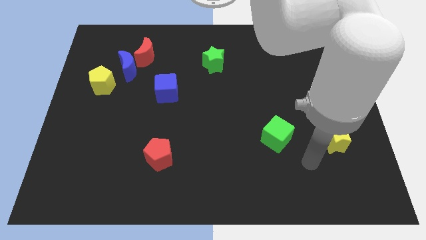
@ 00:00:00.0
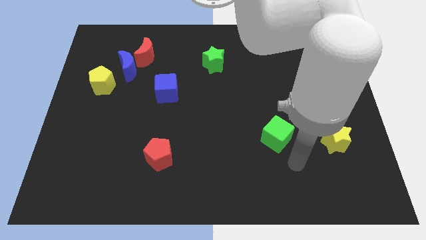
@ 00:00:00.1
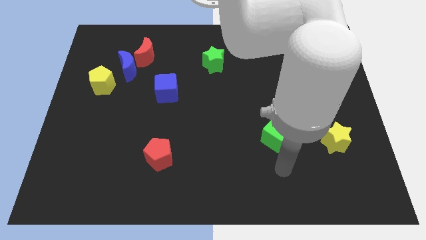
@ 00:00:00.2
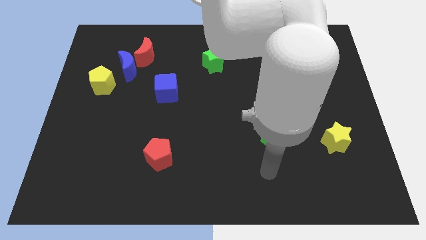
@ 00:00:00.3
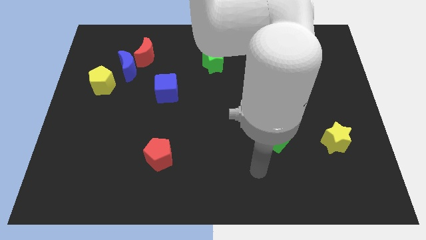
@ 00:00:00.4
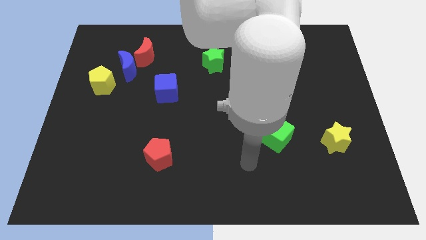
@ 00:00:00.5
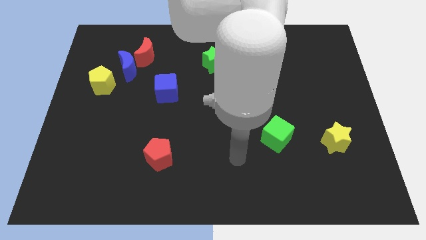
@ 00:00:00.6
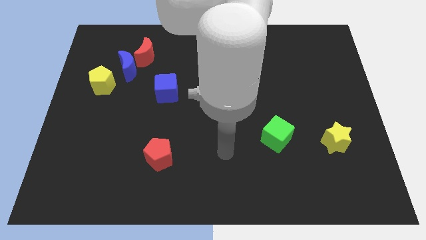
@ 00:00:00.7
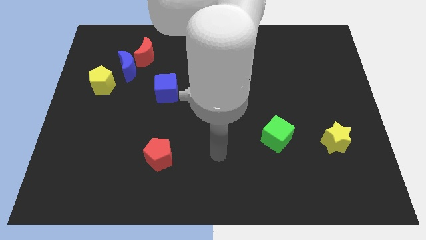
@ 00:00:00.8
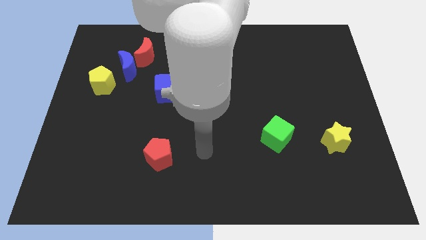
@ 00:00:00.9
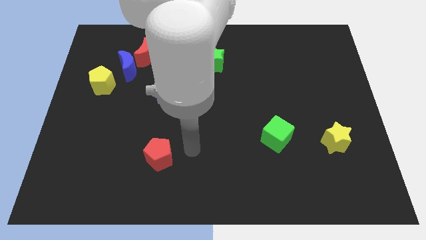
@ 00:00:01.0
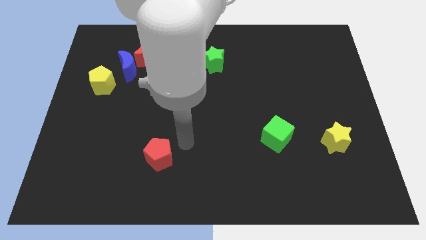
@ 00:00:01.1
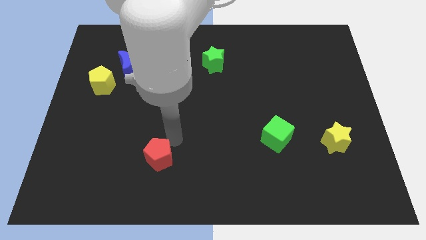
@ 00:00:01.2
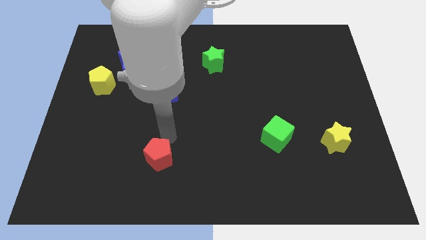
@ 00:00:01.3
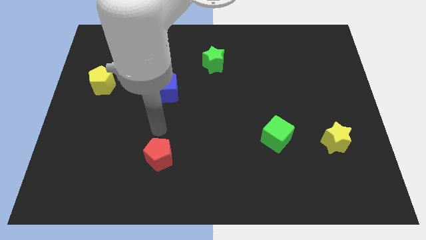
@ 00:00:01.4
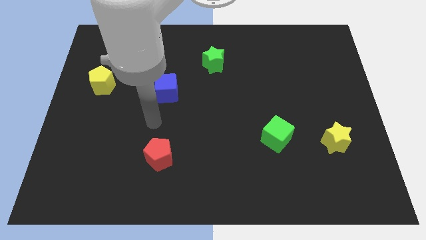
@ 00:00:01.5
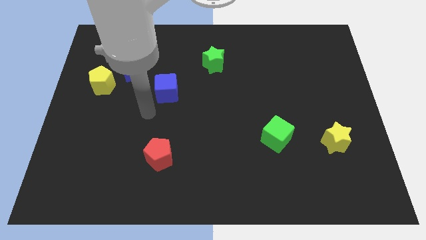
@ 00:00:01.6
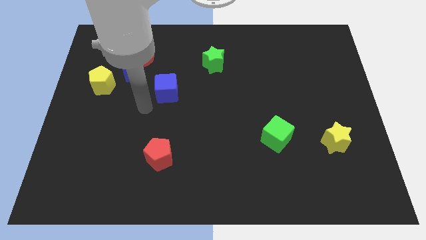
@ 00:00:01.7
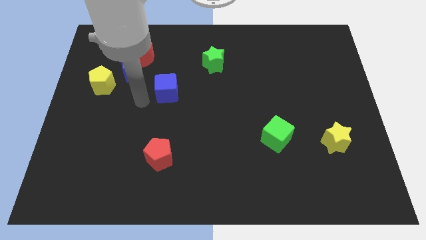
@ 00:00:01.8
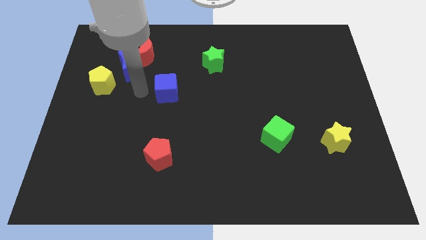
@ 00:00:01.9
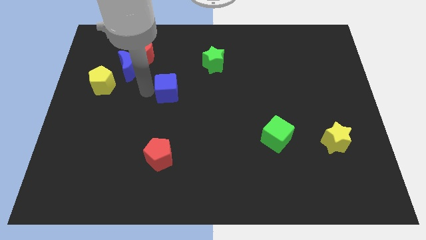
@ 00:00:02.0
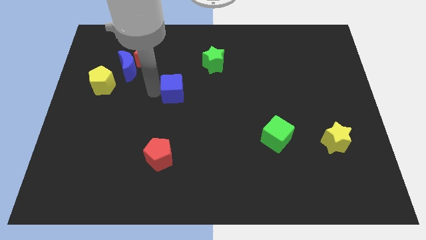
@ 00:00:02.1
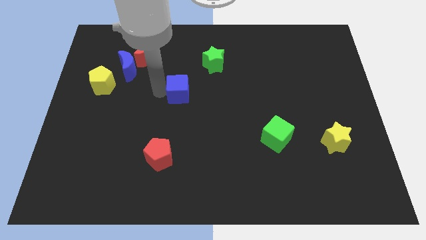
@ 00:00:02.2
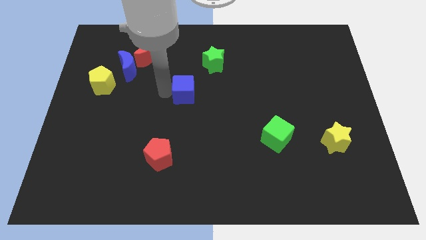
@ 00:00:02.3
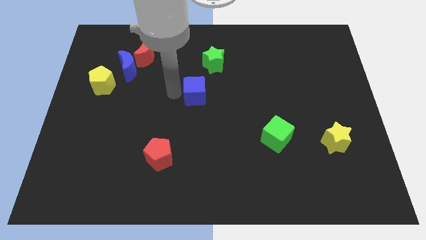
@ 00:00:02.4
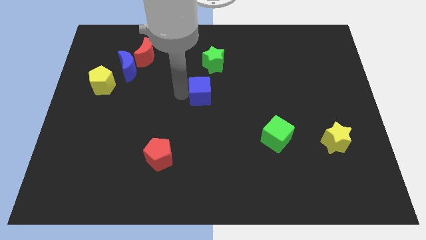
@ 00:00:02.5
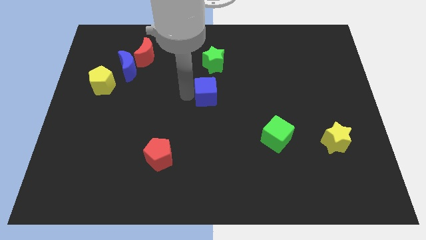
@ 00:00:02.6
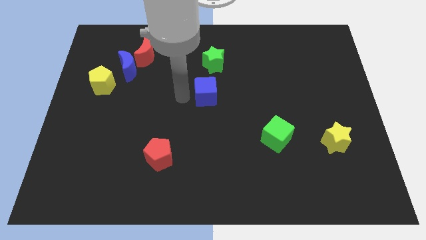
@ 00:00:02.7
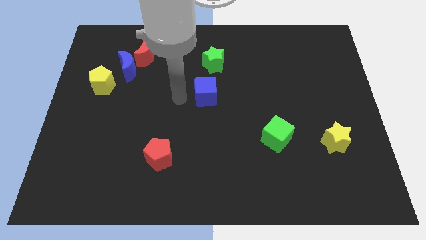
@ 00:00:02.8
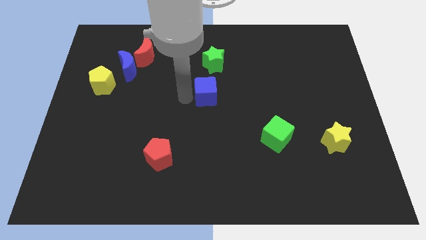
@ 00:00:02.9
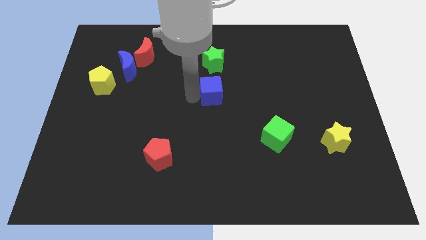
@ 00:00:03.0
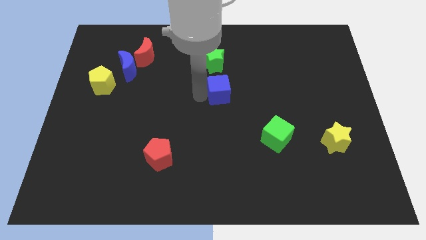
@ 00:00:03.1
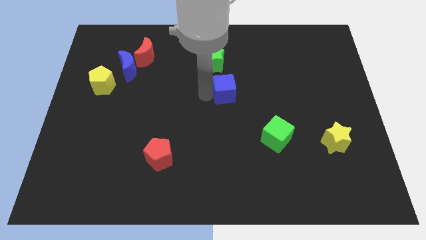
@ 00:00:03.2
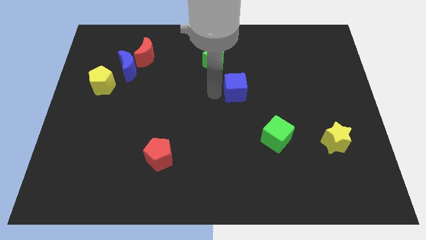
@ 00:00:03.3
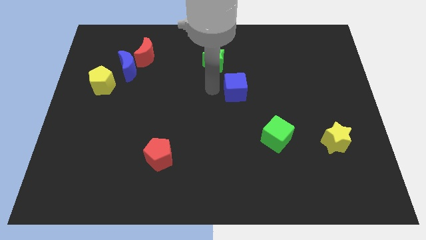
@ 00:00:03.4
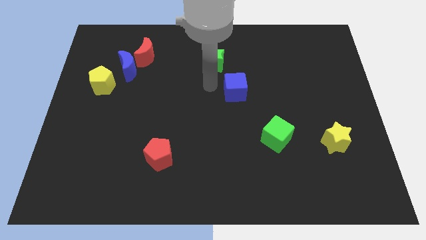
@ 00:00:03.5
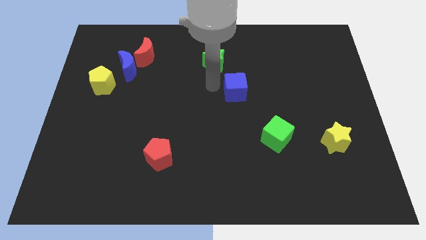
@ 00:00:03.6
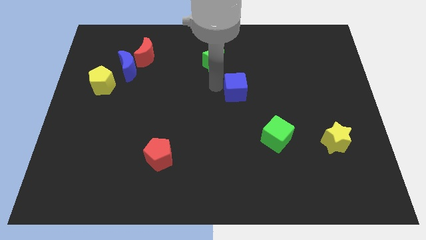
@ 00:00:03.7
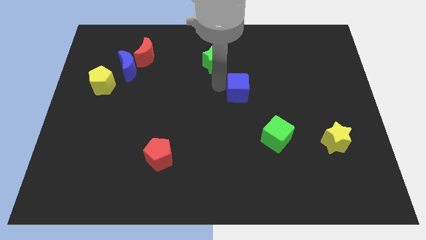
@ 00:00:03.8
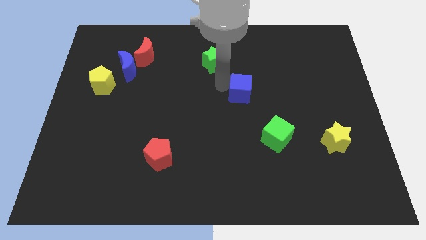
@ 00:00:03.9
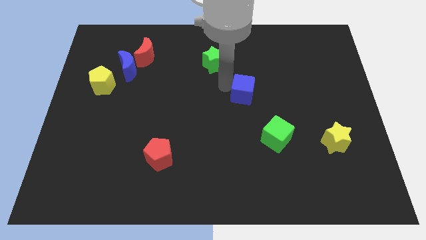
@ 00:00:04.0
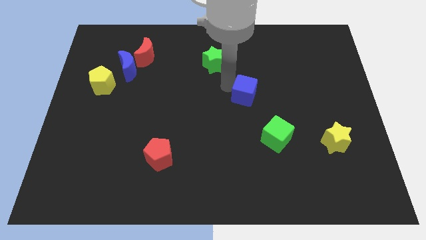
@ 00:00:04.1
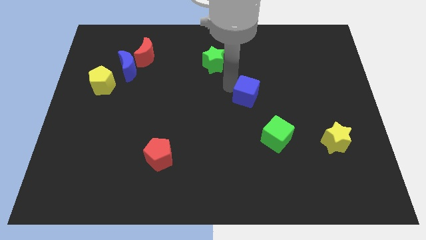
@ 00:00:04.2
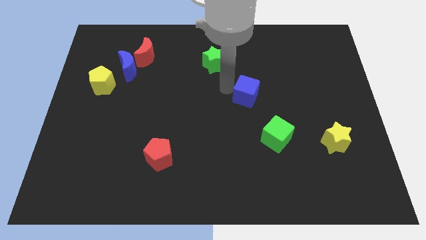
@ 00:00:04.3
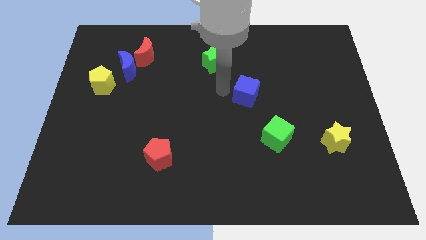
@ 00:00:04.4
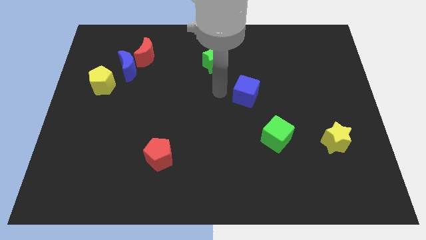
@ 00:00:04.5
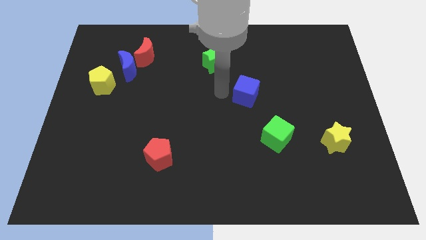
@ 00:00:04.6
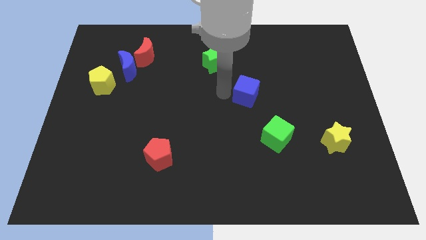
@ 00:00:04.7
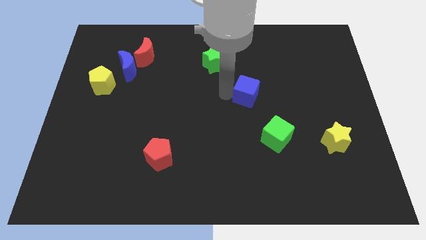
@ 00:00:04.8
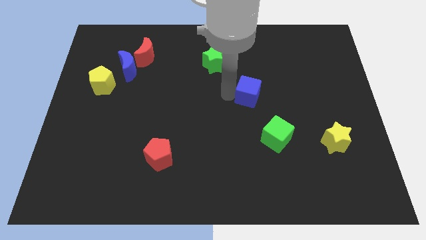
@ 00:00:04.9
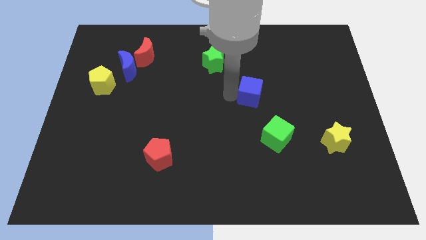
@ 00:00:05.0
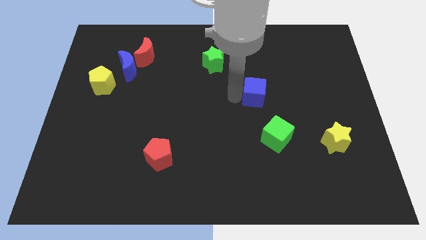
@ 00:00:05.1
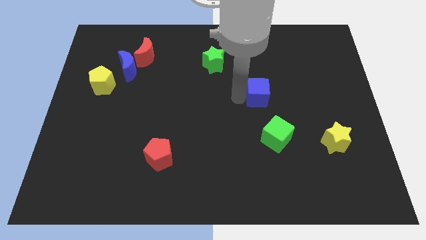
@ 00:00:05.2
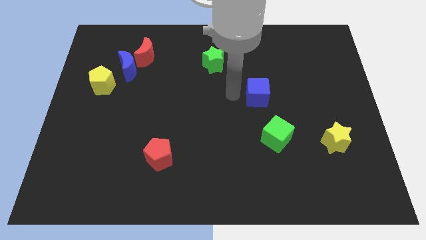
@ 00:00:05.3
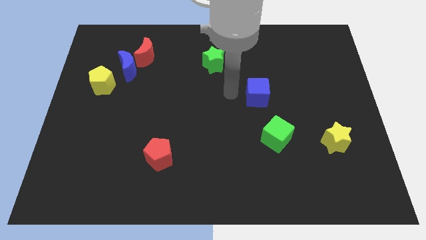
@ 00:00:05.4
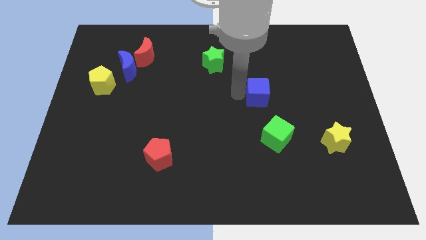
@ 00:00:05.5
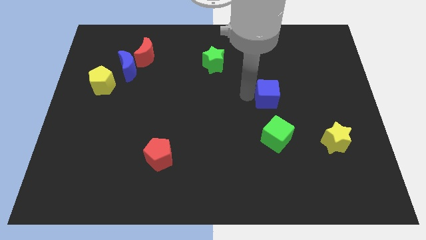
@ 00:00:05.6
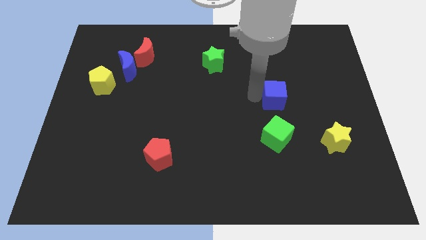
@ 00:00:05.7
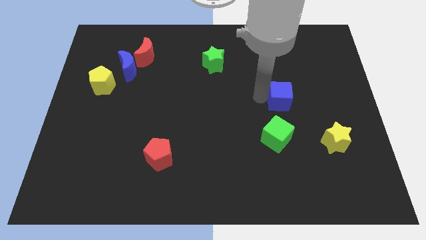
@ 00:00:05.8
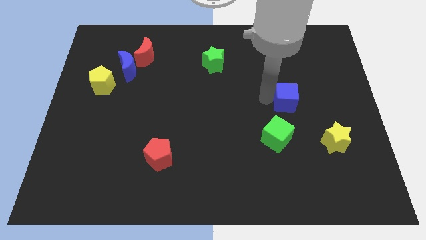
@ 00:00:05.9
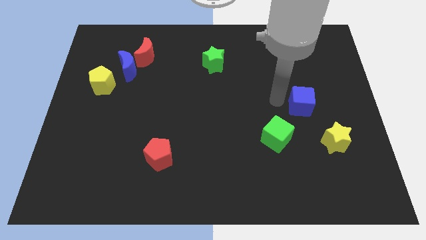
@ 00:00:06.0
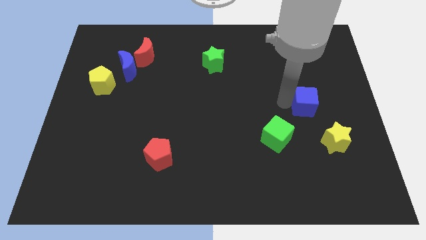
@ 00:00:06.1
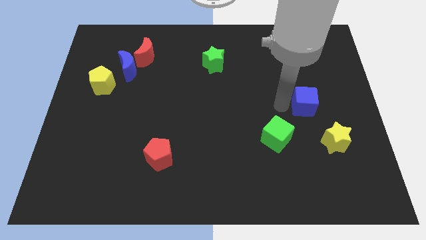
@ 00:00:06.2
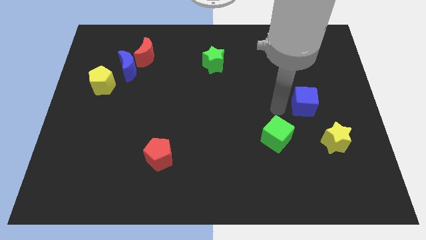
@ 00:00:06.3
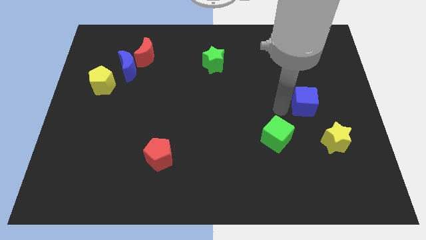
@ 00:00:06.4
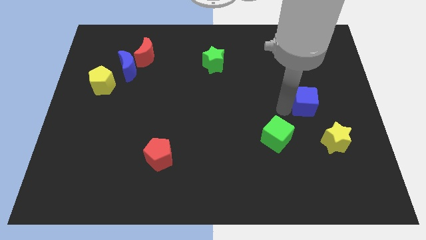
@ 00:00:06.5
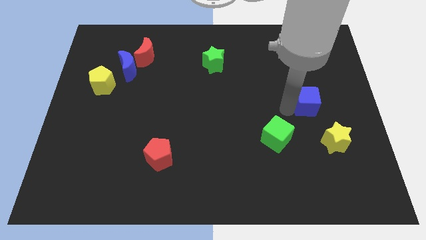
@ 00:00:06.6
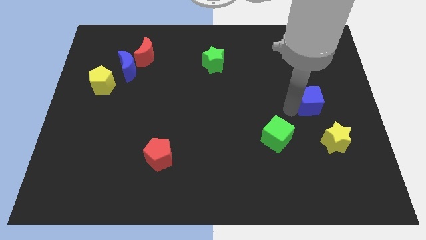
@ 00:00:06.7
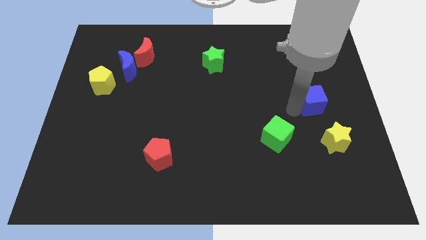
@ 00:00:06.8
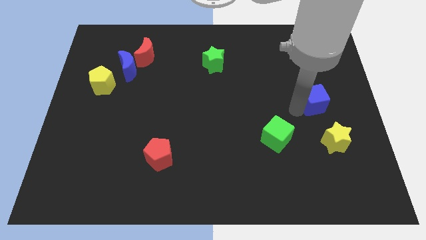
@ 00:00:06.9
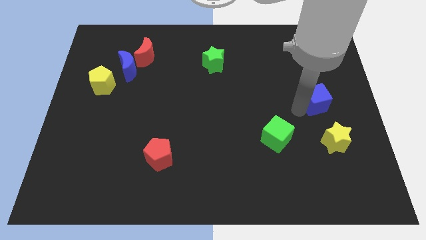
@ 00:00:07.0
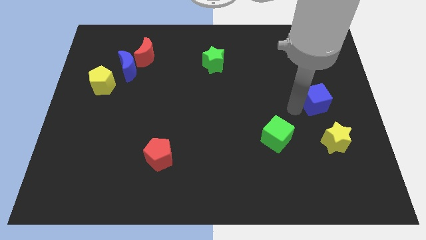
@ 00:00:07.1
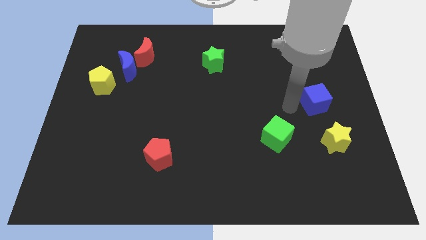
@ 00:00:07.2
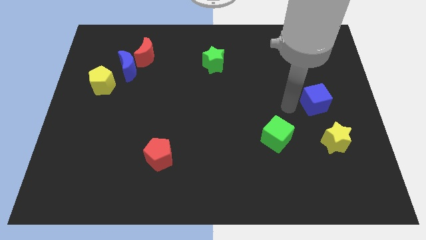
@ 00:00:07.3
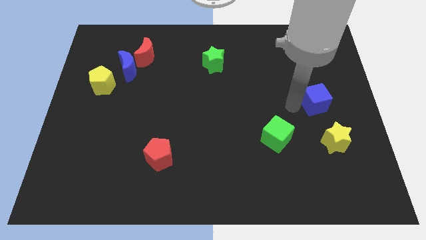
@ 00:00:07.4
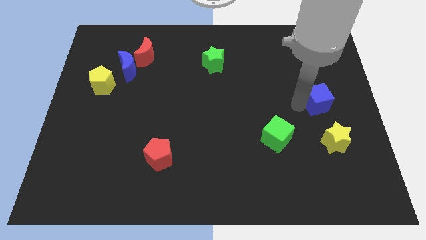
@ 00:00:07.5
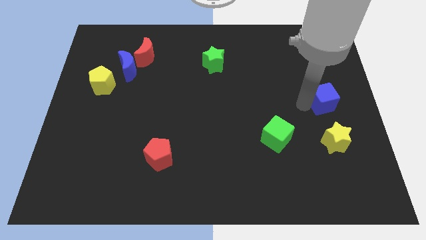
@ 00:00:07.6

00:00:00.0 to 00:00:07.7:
move the blue cube to the center right
